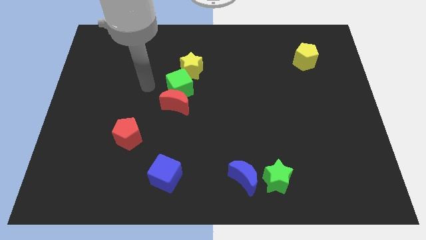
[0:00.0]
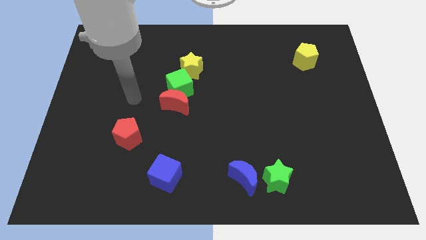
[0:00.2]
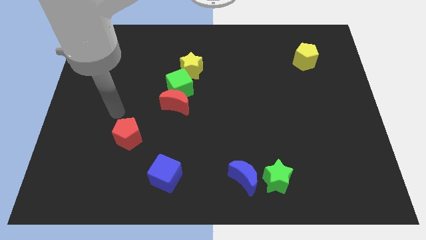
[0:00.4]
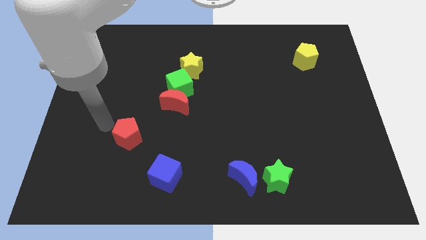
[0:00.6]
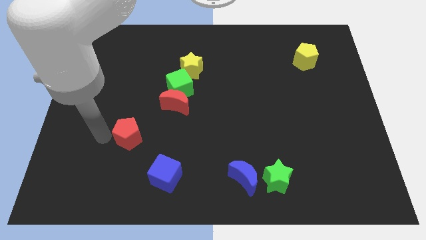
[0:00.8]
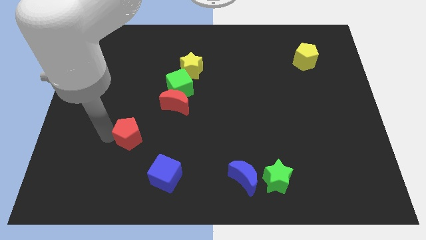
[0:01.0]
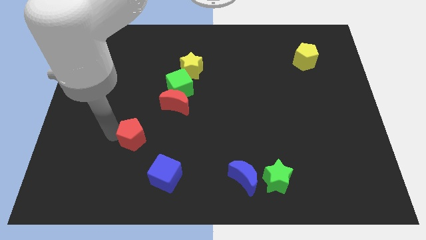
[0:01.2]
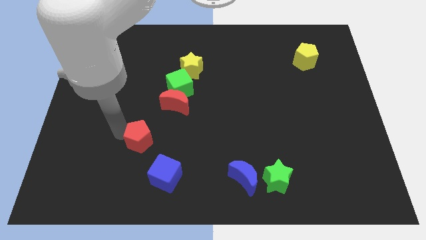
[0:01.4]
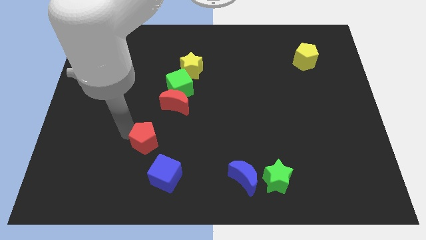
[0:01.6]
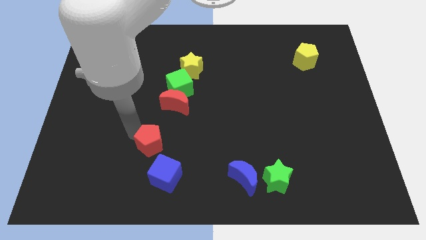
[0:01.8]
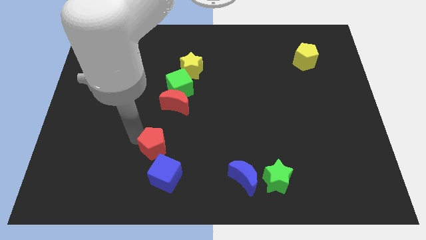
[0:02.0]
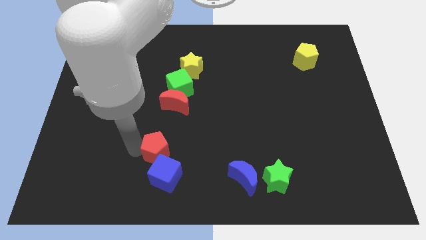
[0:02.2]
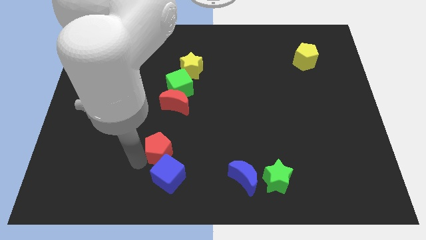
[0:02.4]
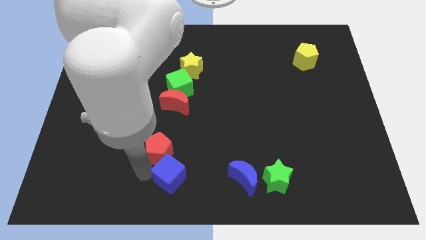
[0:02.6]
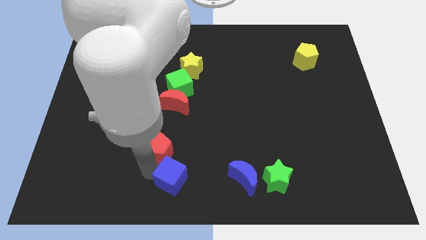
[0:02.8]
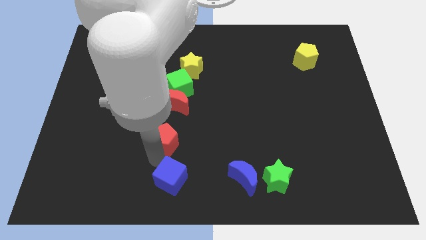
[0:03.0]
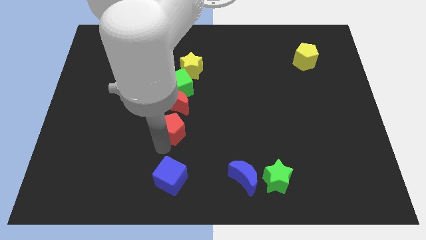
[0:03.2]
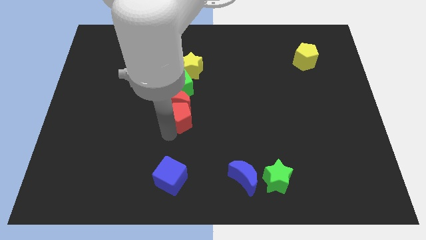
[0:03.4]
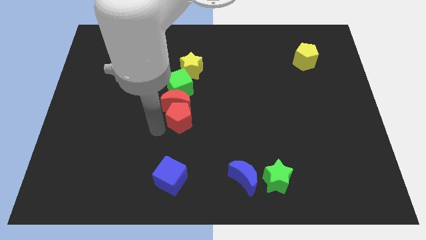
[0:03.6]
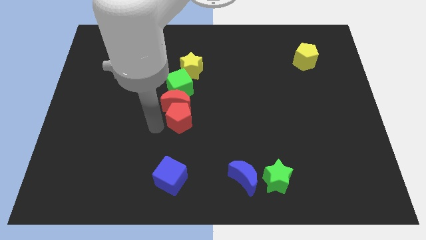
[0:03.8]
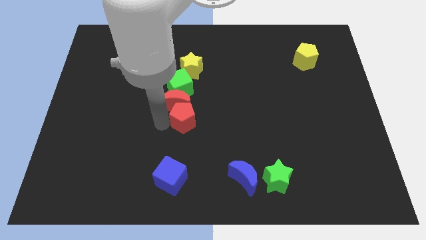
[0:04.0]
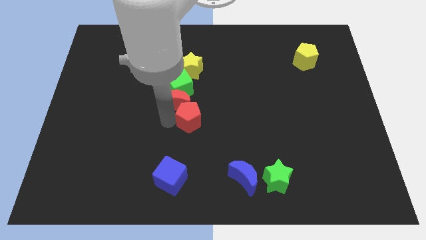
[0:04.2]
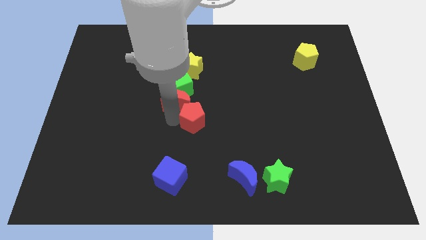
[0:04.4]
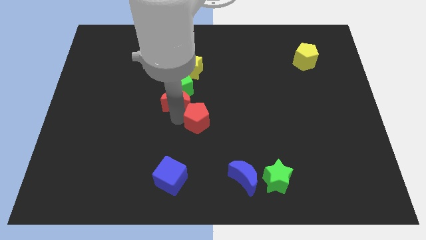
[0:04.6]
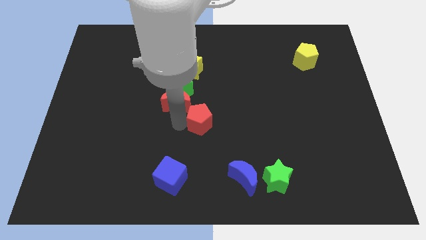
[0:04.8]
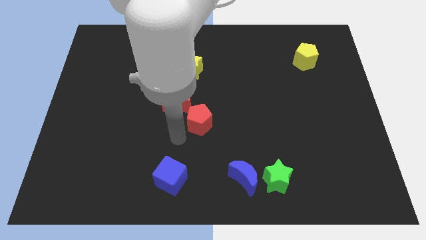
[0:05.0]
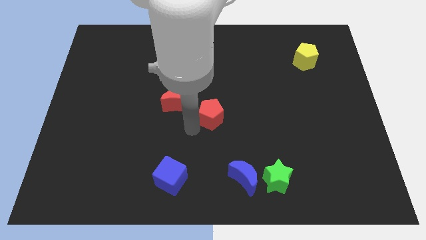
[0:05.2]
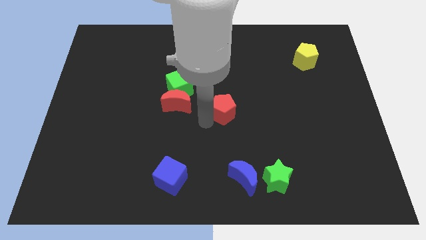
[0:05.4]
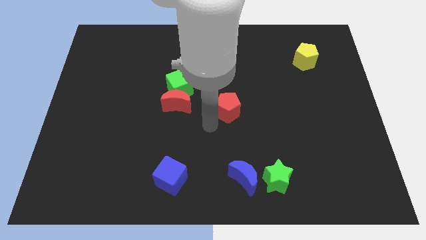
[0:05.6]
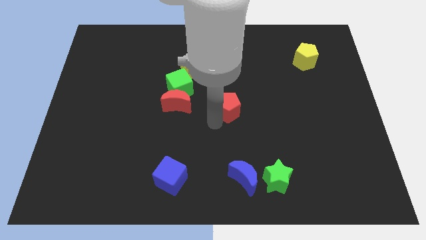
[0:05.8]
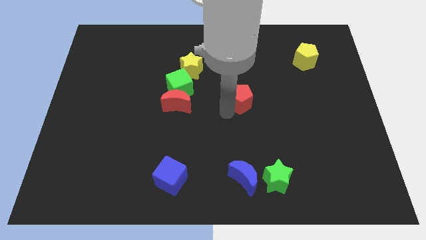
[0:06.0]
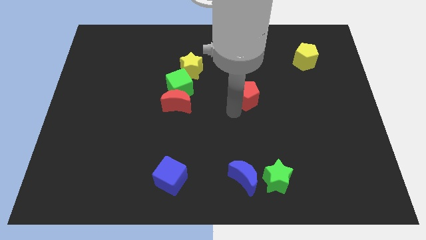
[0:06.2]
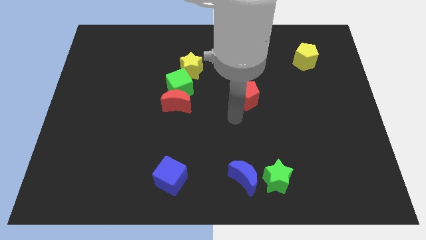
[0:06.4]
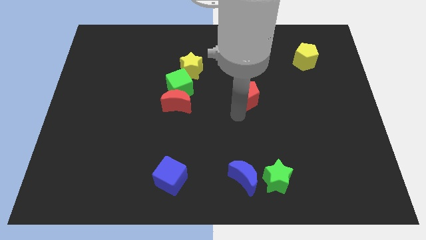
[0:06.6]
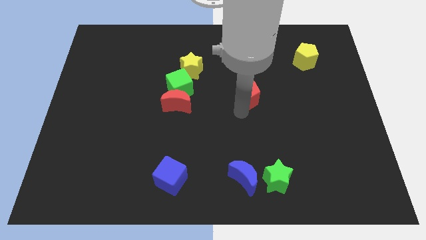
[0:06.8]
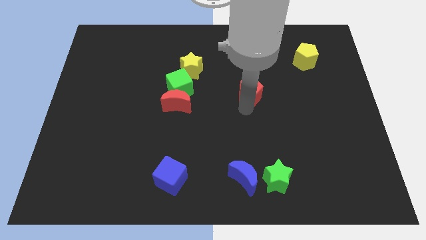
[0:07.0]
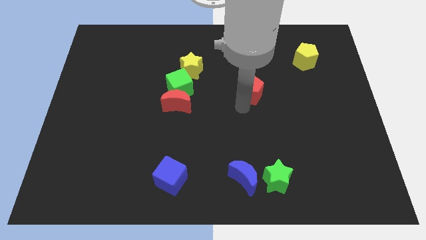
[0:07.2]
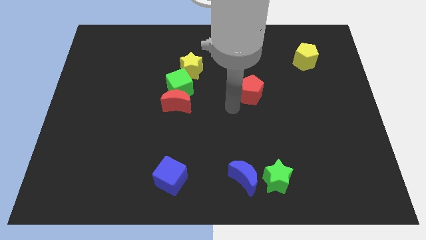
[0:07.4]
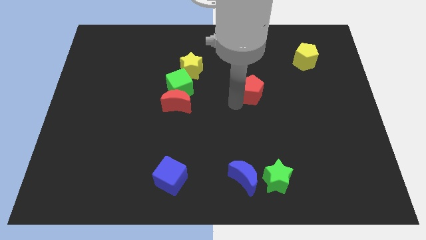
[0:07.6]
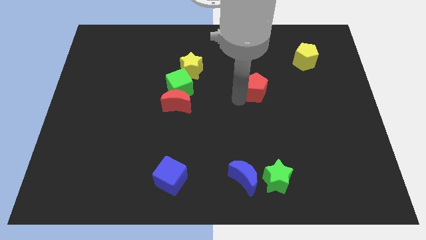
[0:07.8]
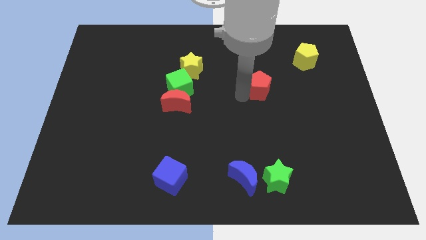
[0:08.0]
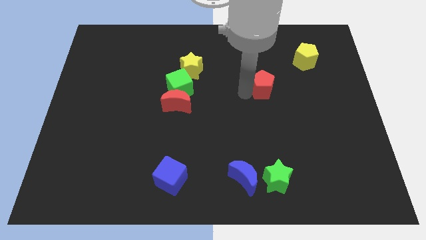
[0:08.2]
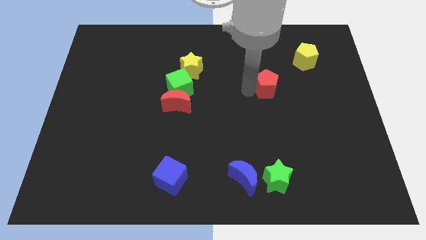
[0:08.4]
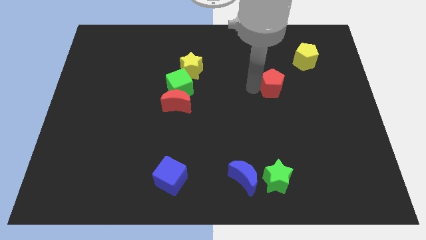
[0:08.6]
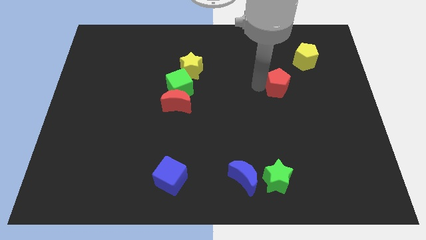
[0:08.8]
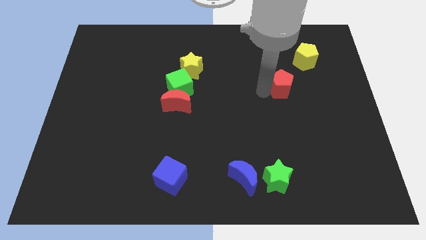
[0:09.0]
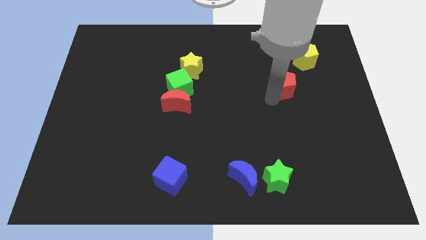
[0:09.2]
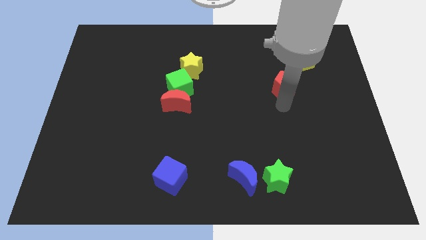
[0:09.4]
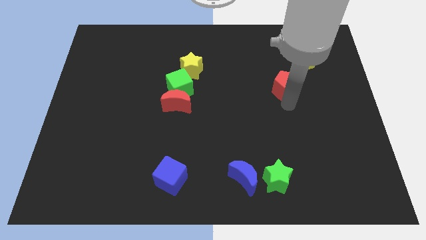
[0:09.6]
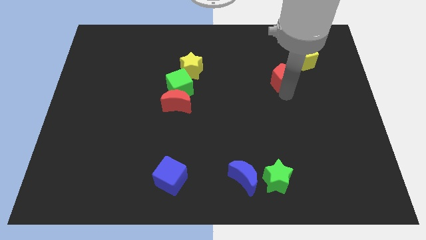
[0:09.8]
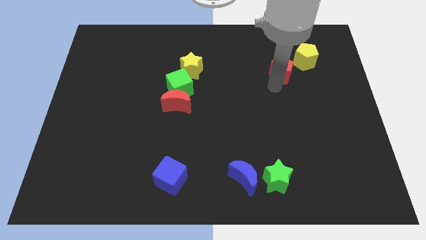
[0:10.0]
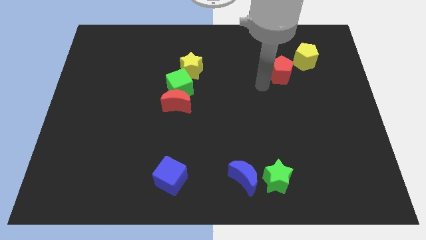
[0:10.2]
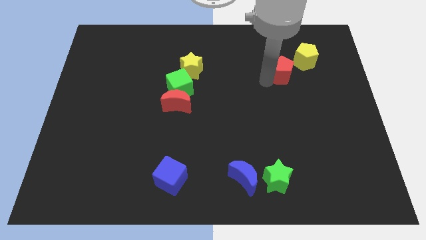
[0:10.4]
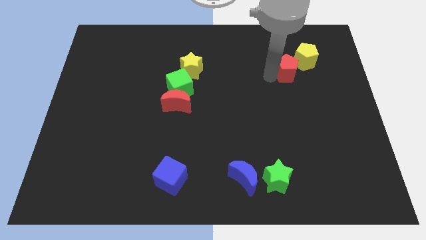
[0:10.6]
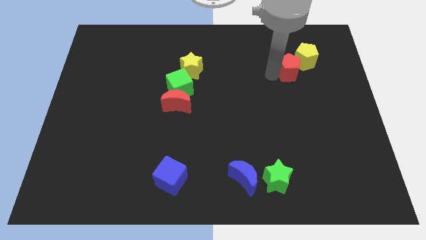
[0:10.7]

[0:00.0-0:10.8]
push the red pentagon towards the yellow pentagon

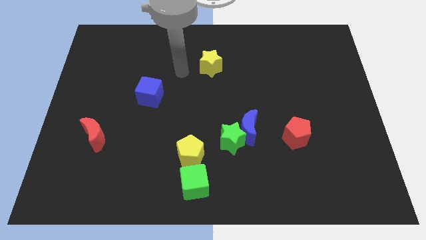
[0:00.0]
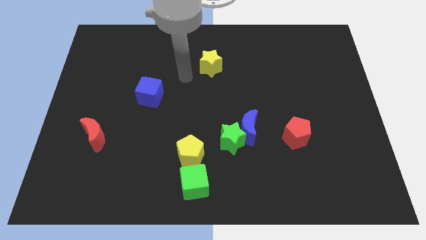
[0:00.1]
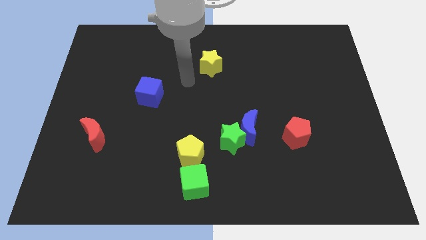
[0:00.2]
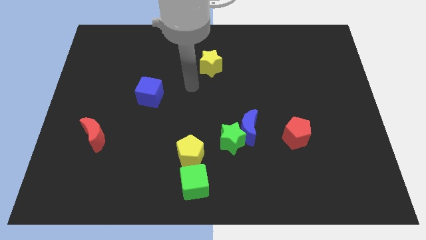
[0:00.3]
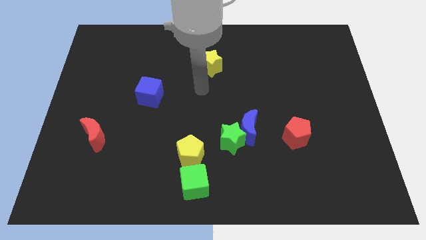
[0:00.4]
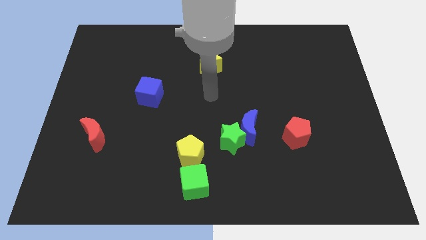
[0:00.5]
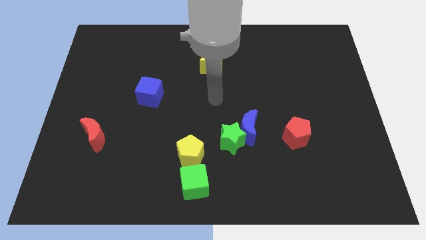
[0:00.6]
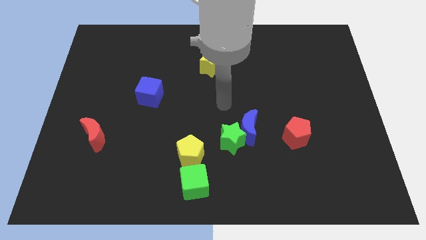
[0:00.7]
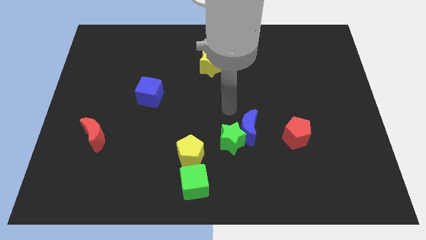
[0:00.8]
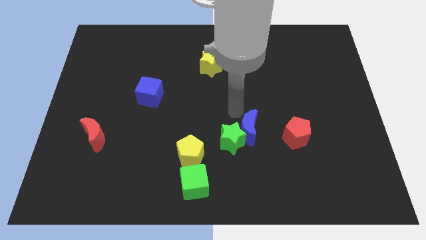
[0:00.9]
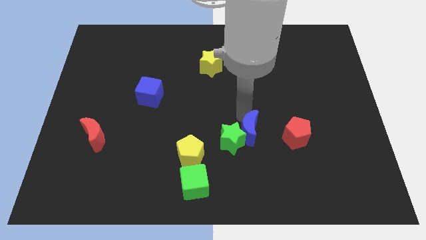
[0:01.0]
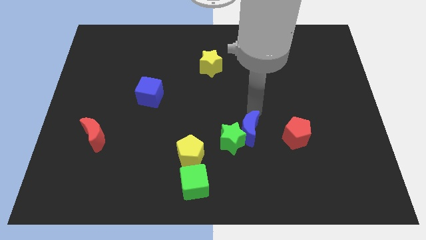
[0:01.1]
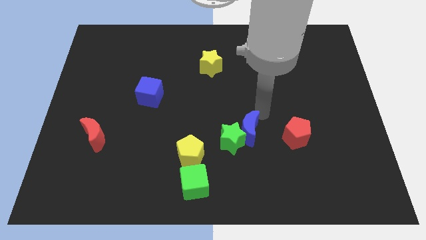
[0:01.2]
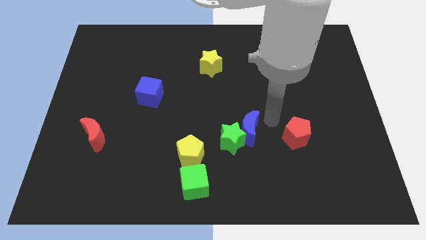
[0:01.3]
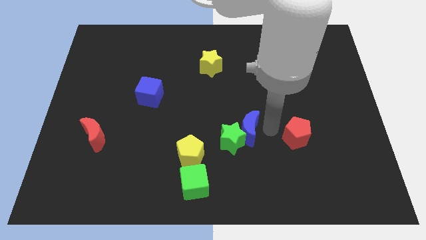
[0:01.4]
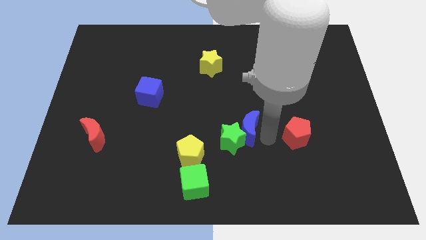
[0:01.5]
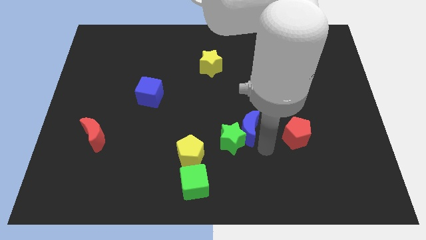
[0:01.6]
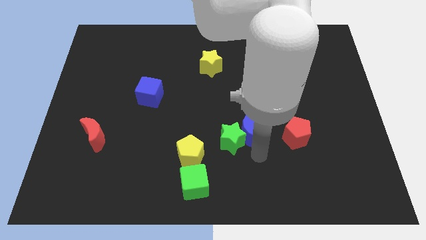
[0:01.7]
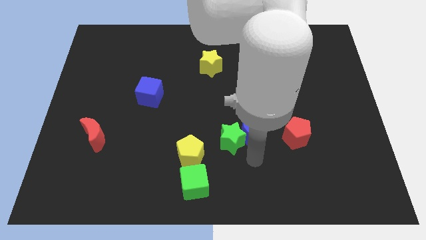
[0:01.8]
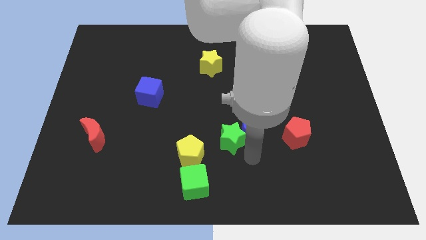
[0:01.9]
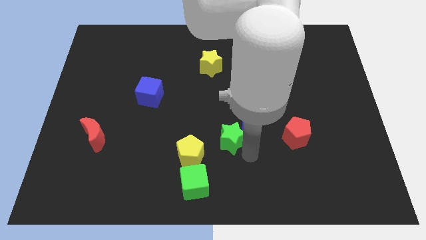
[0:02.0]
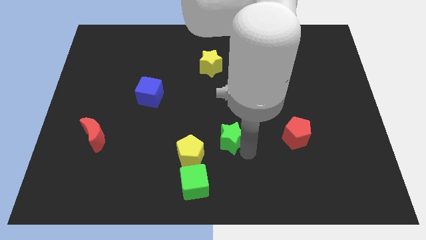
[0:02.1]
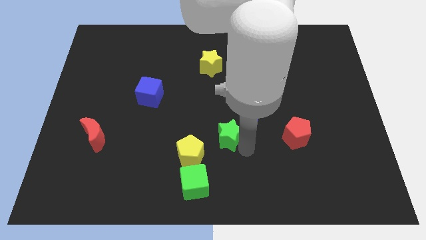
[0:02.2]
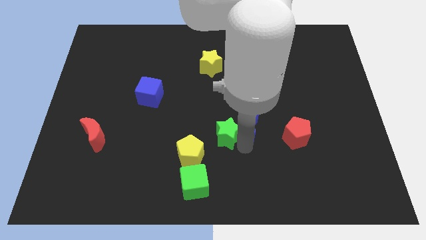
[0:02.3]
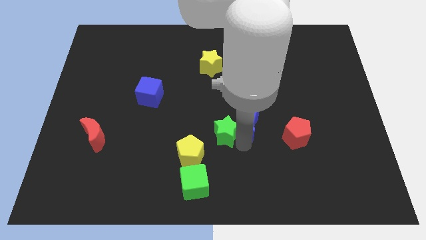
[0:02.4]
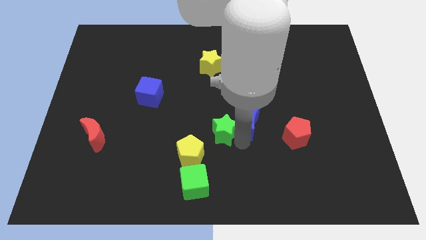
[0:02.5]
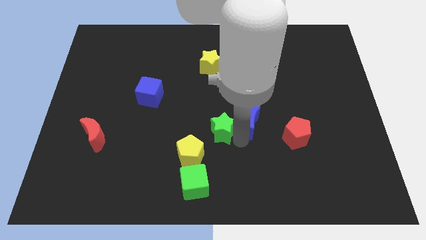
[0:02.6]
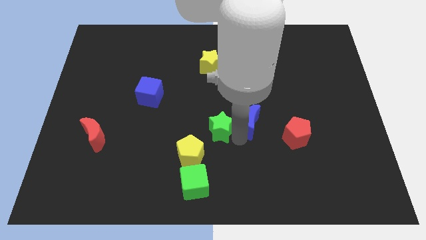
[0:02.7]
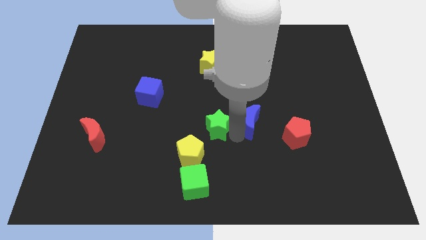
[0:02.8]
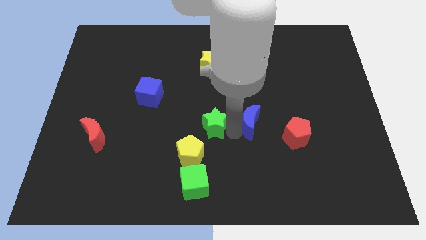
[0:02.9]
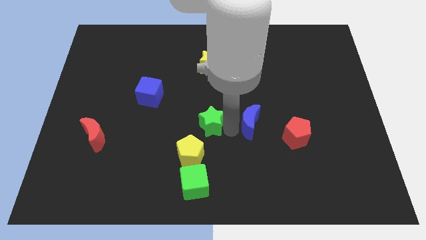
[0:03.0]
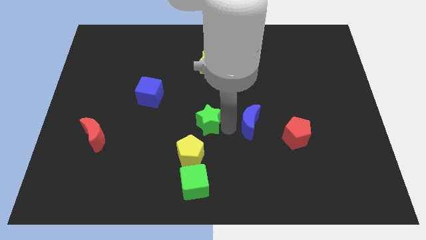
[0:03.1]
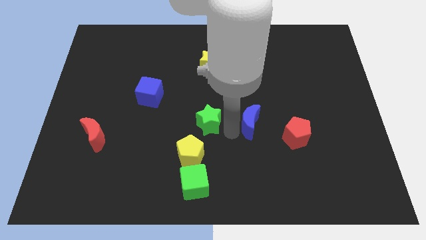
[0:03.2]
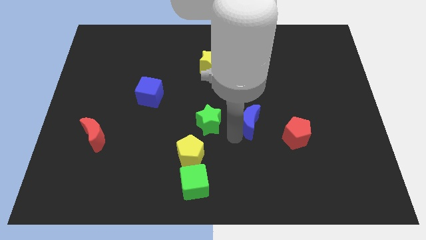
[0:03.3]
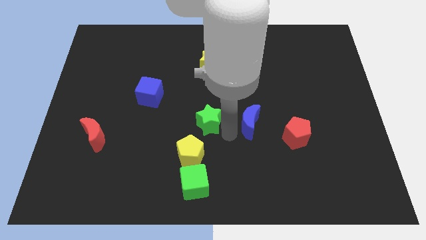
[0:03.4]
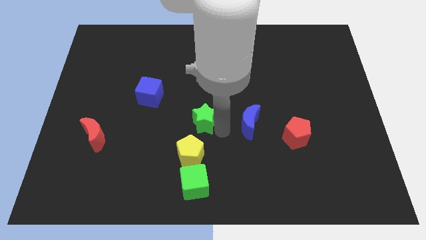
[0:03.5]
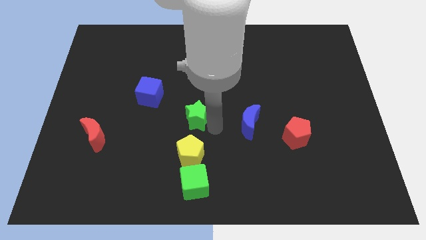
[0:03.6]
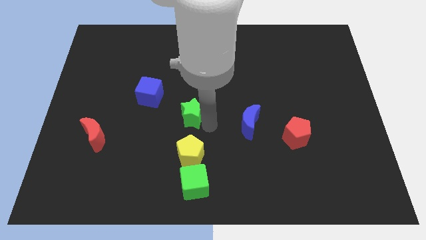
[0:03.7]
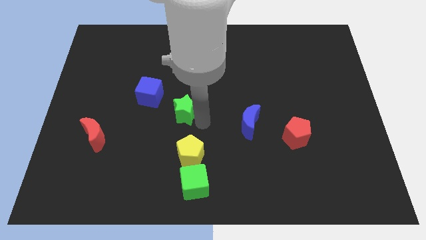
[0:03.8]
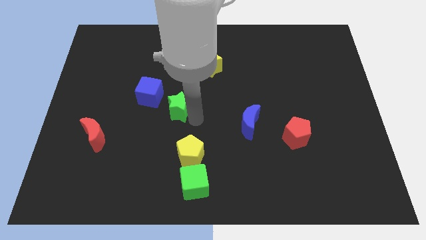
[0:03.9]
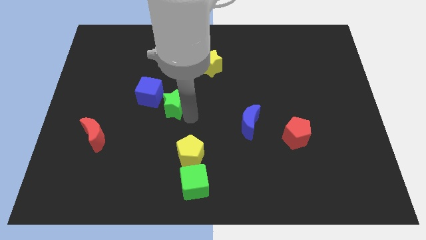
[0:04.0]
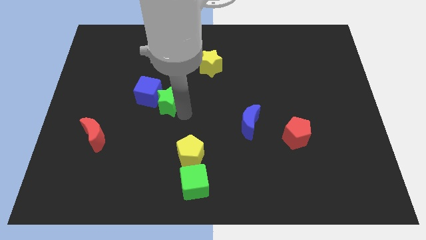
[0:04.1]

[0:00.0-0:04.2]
move the green star to the blue cube
